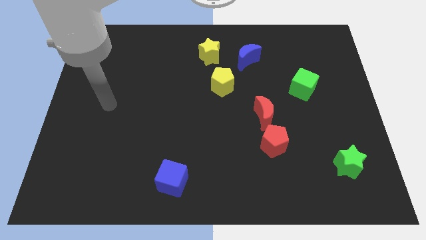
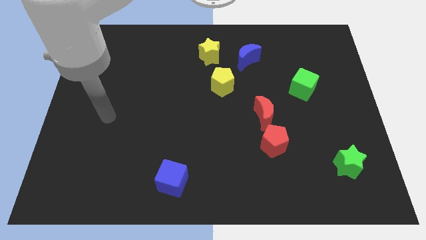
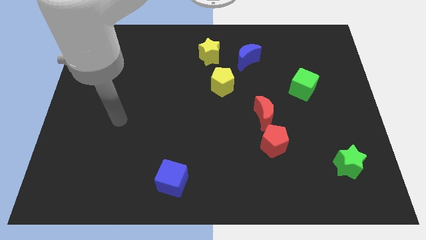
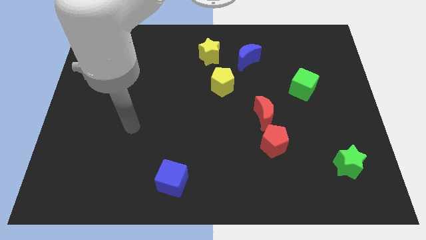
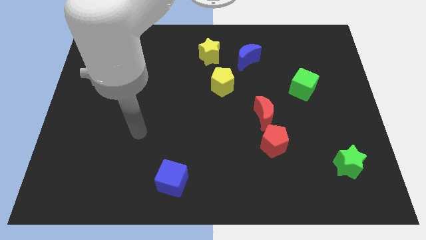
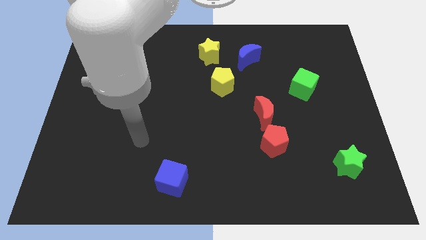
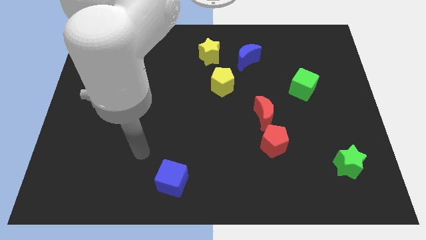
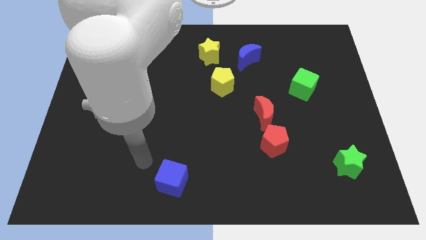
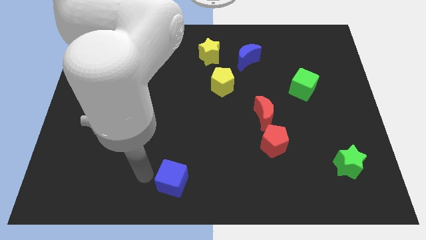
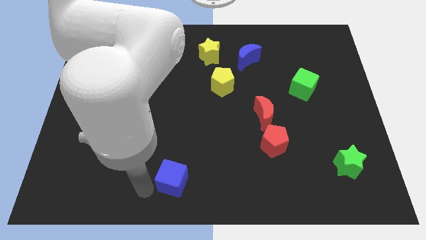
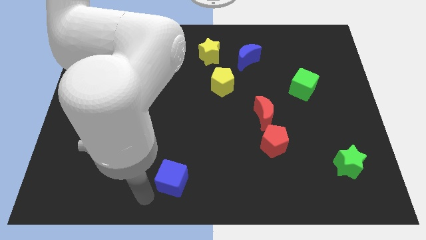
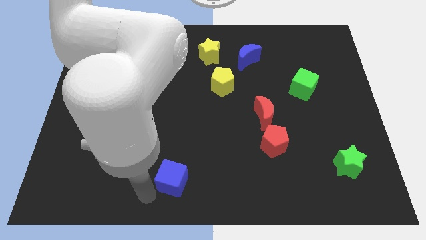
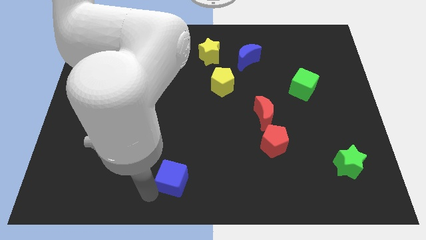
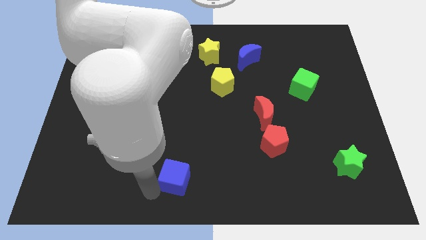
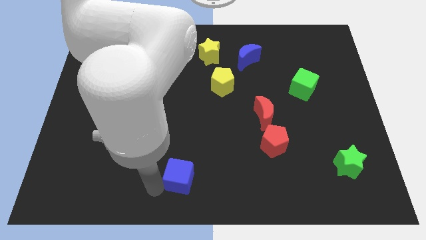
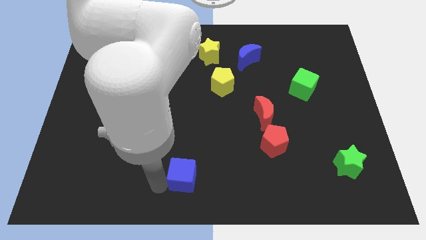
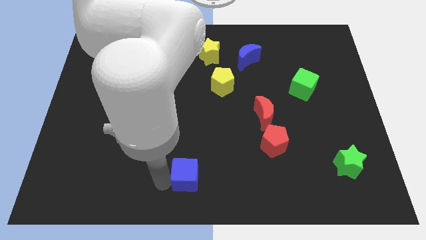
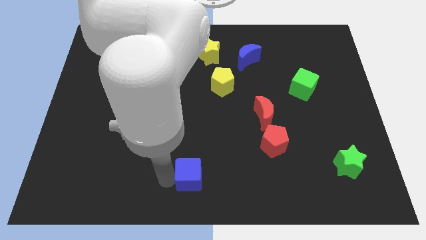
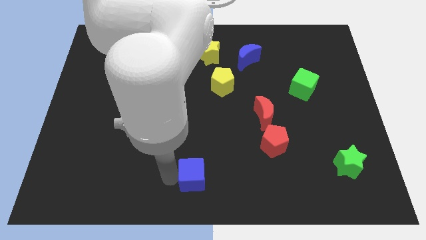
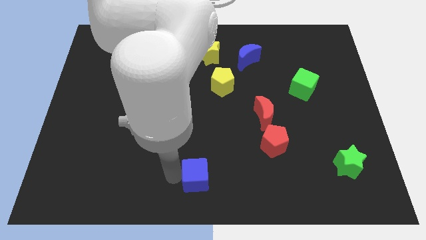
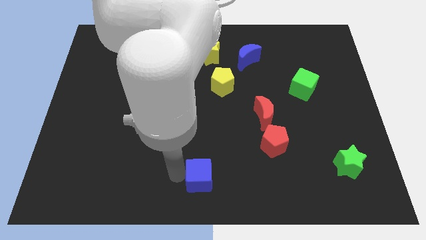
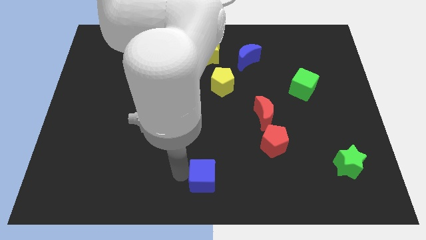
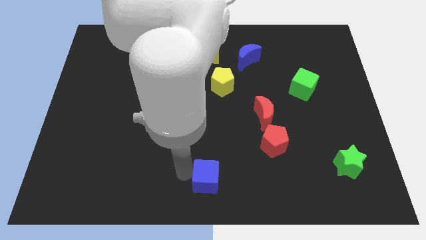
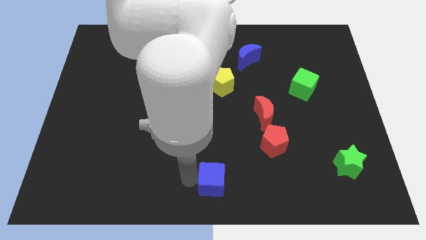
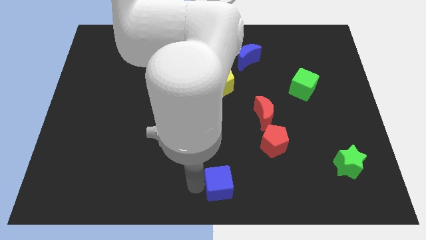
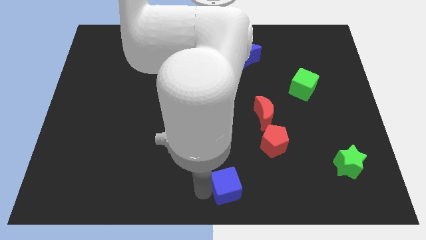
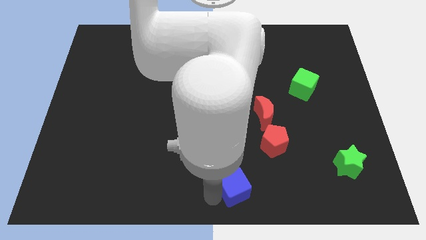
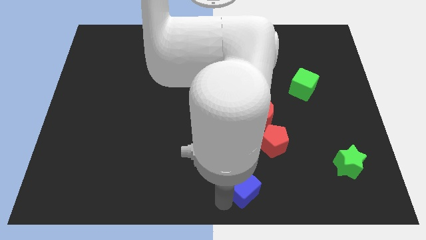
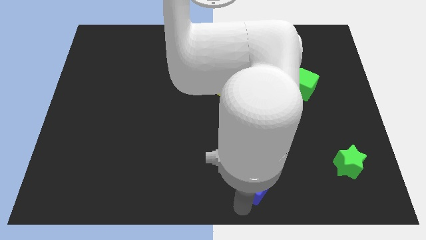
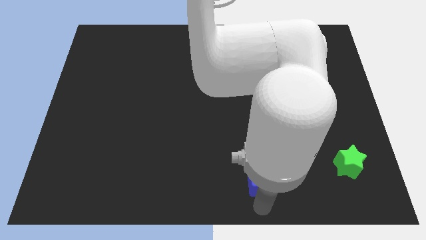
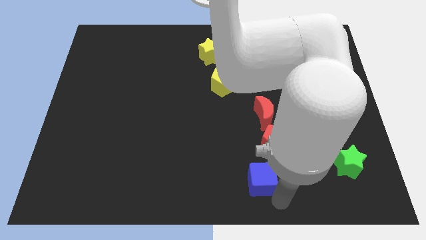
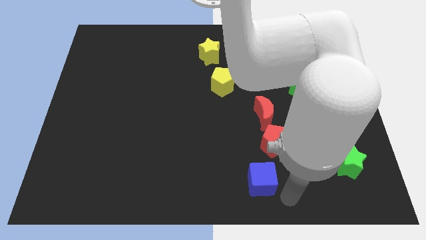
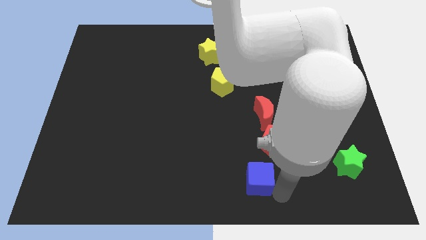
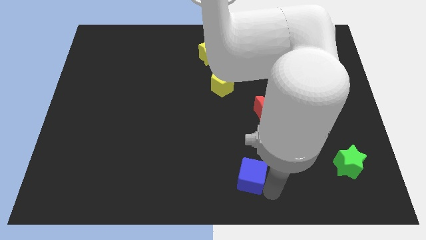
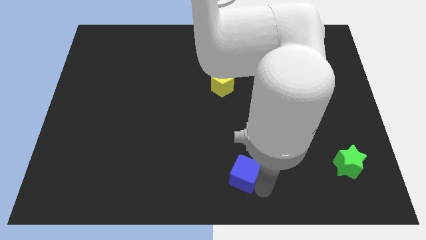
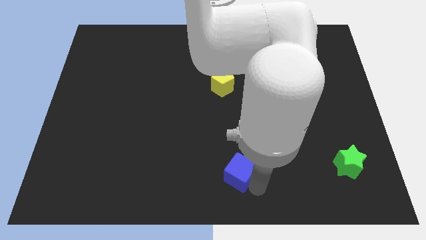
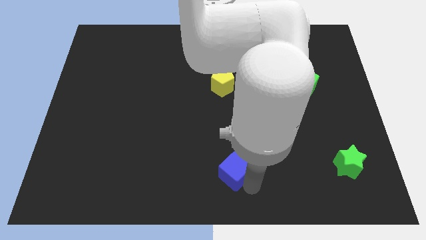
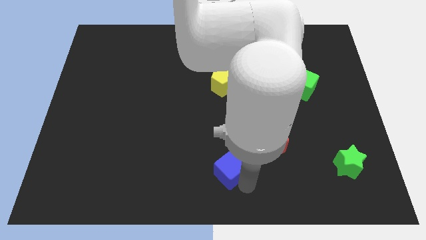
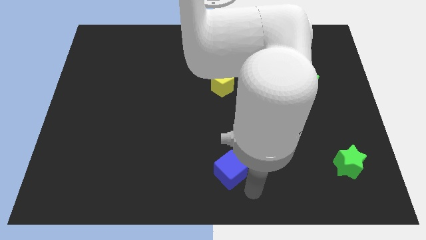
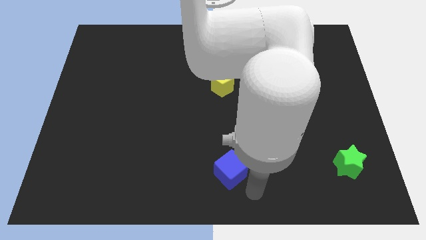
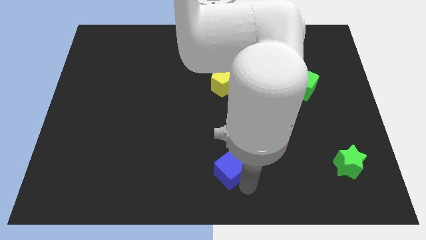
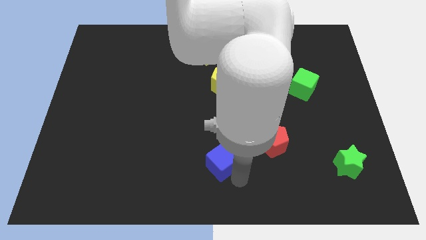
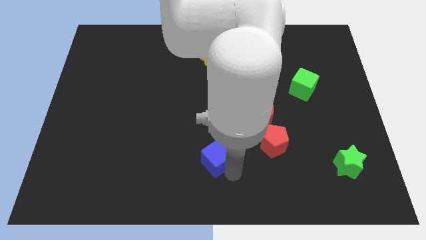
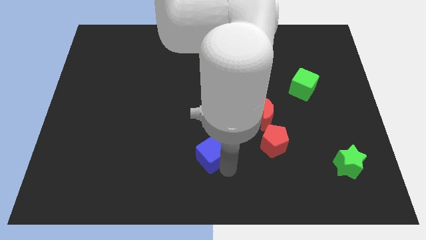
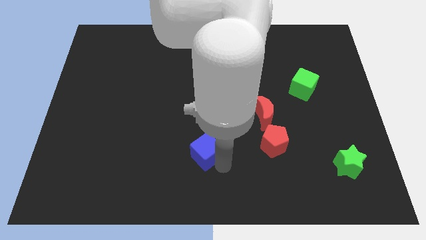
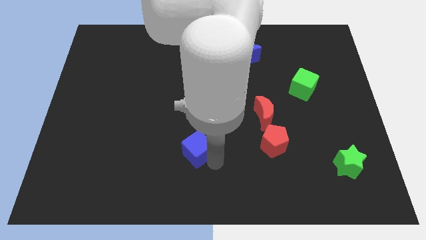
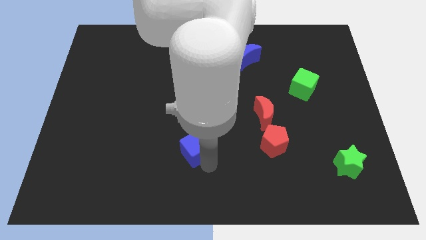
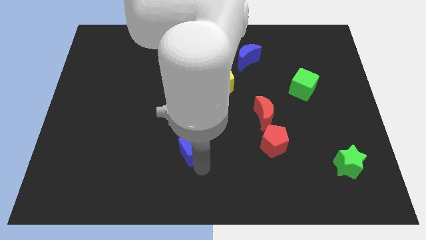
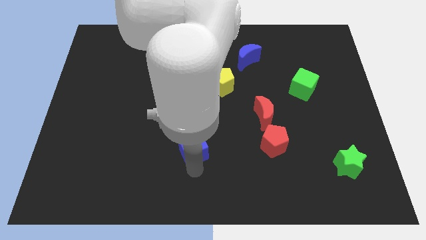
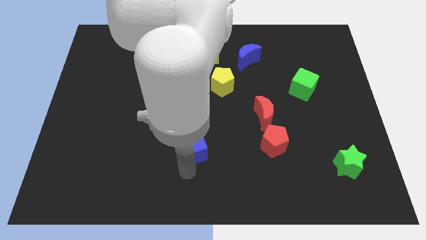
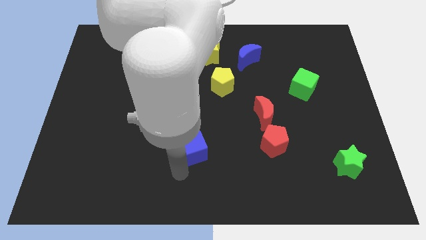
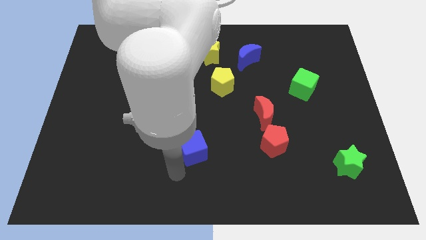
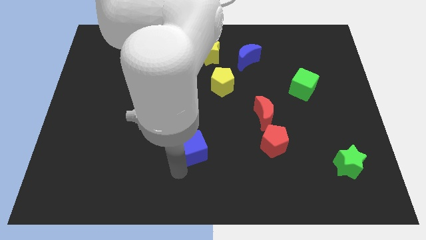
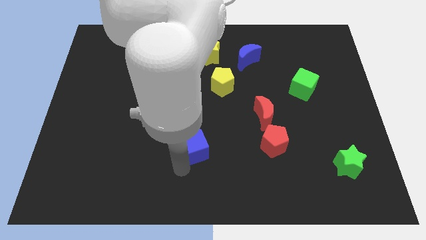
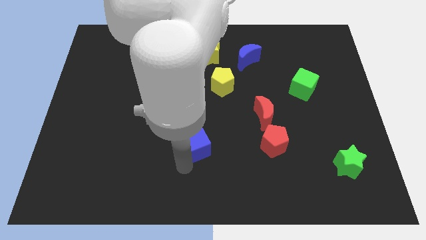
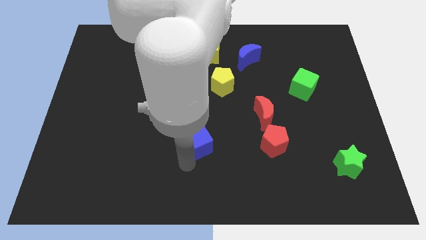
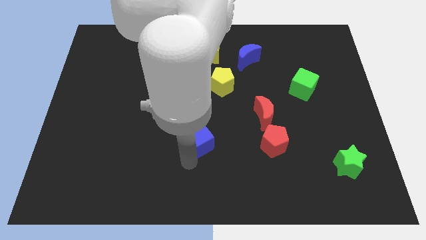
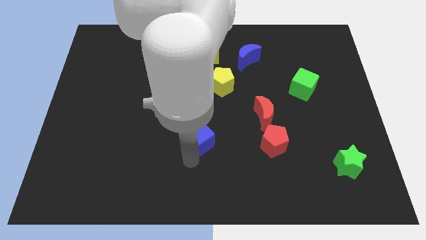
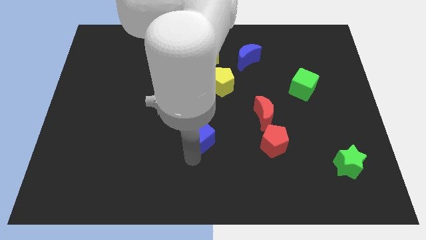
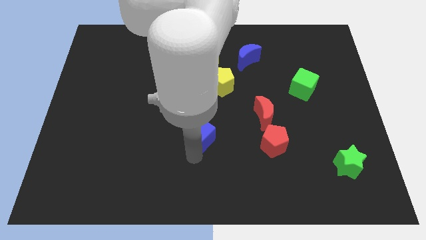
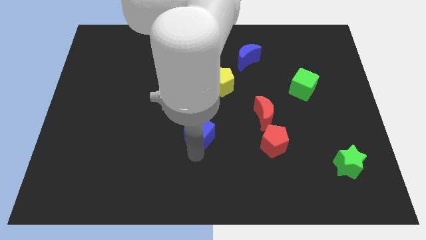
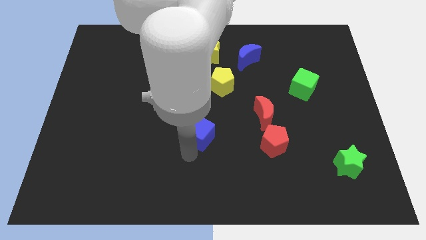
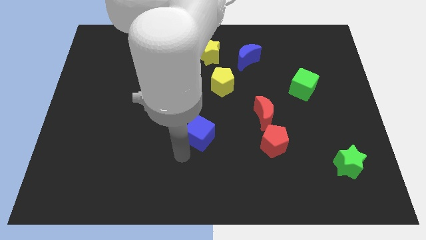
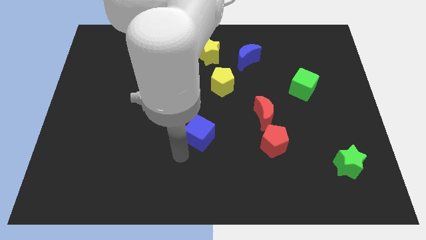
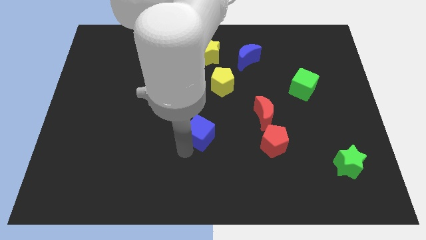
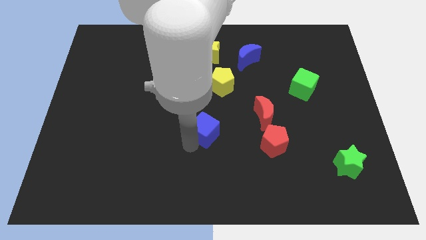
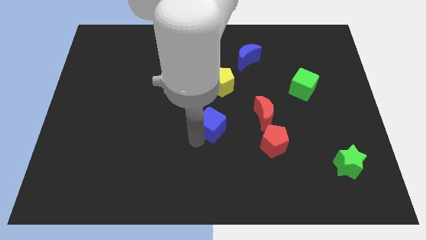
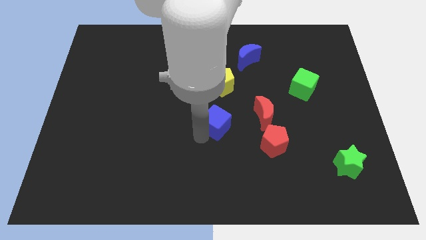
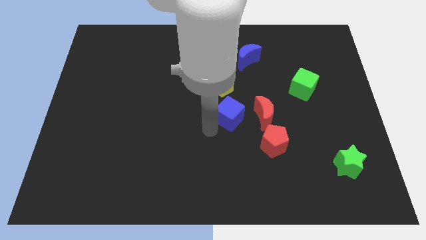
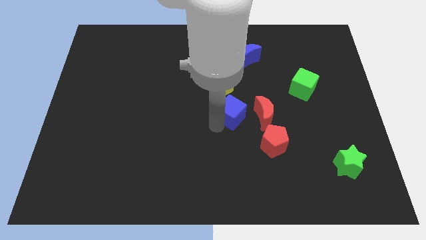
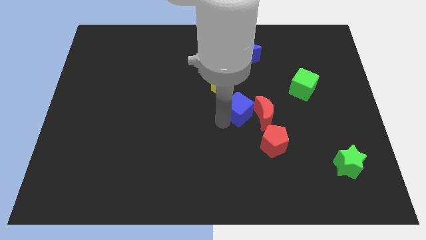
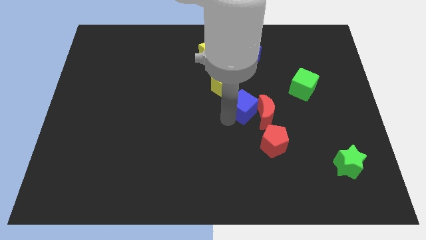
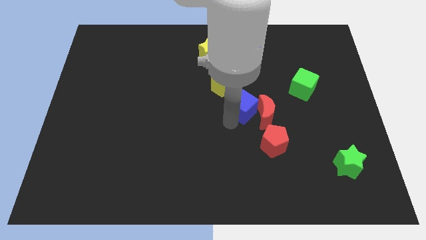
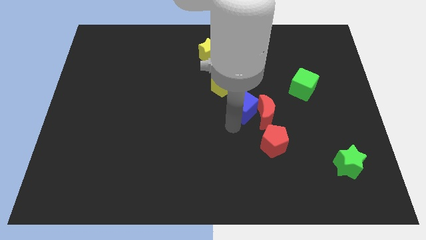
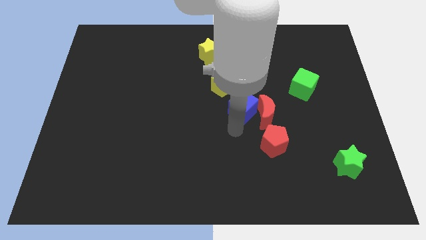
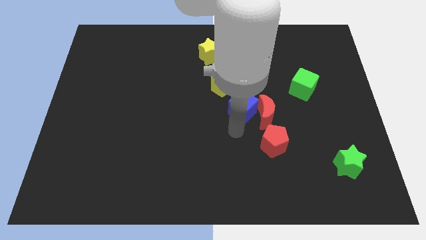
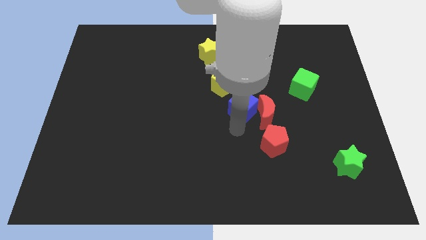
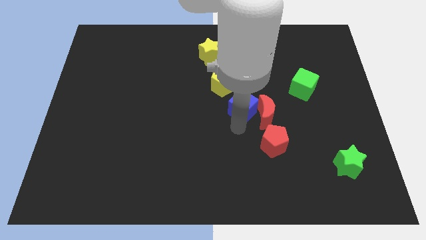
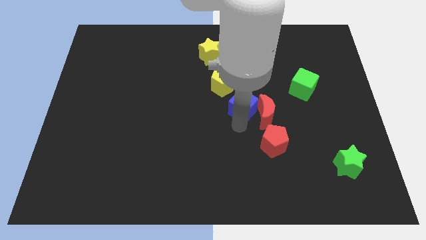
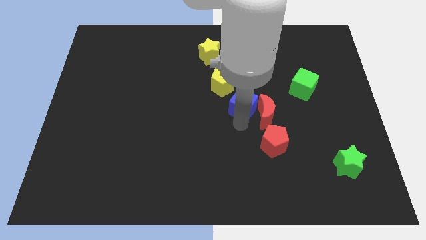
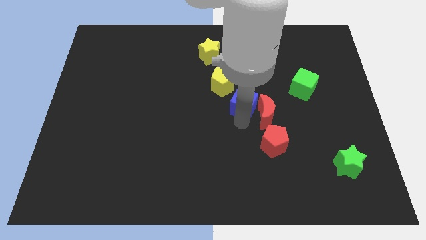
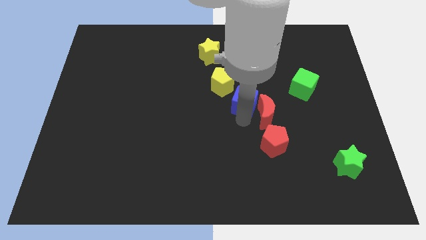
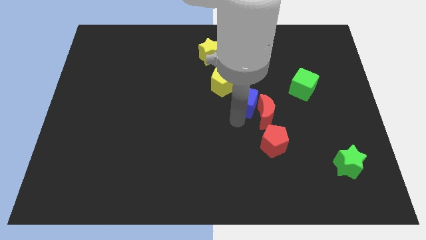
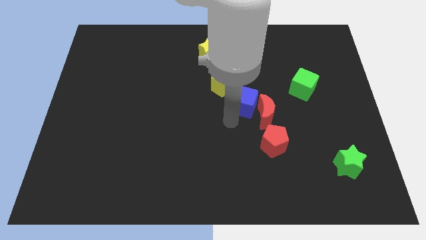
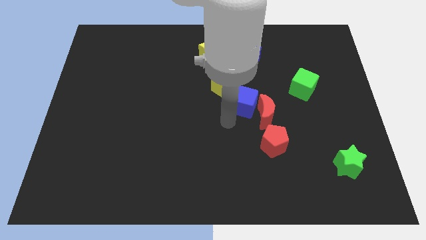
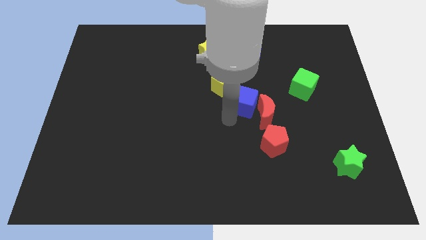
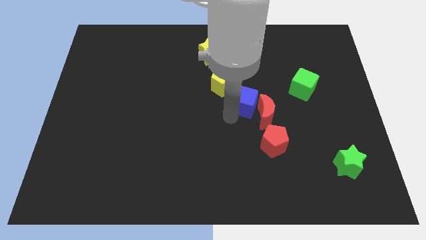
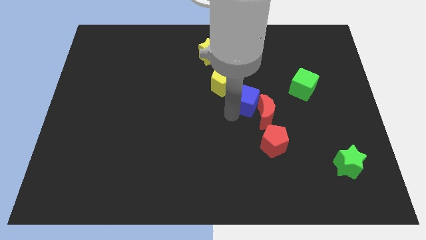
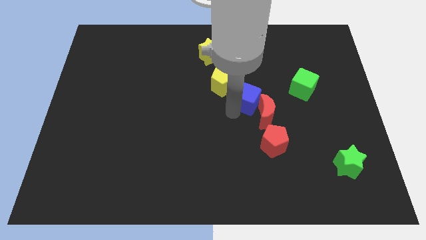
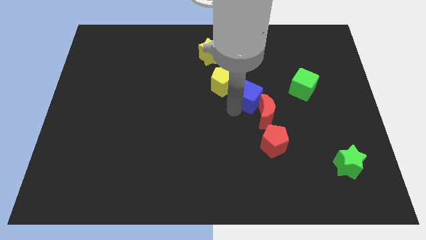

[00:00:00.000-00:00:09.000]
push the blue cube to the left of the green cube
